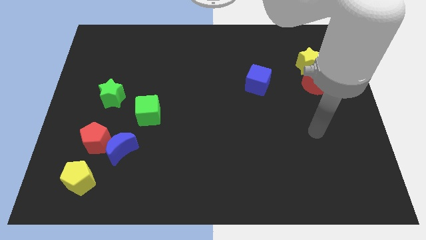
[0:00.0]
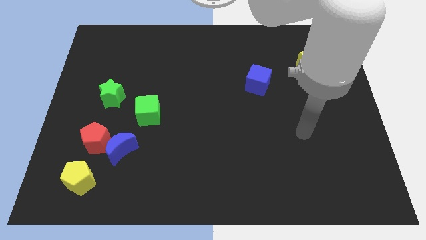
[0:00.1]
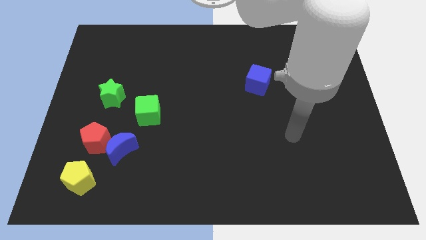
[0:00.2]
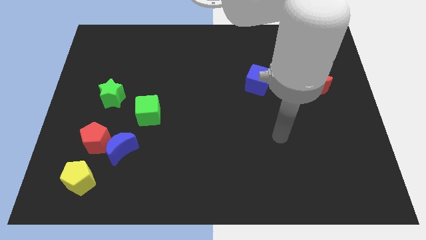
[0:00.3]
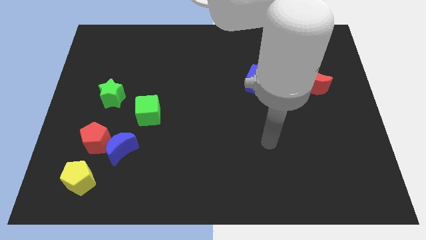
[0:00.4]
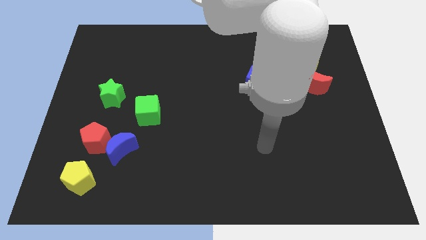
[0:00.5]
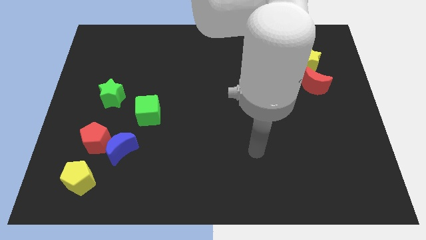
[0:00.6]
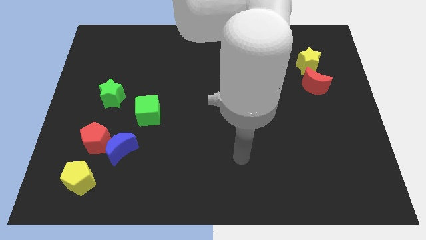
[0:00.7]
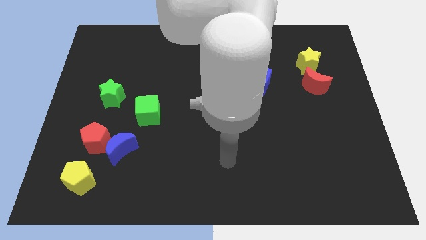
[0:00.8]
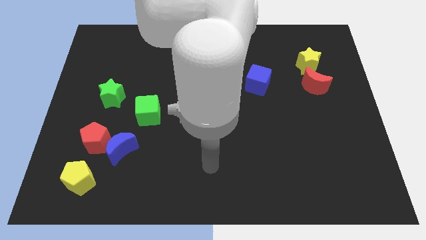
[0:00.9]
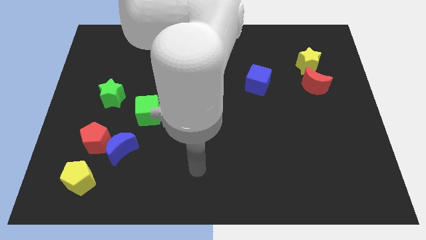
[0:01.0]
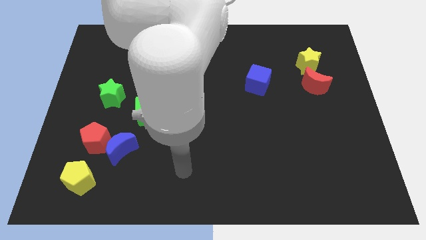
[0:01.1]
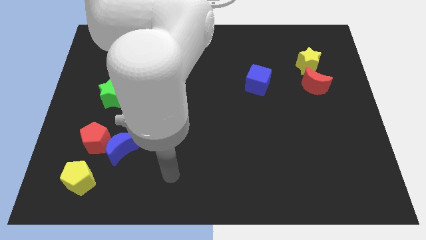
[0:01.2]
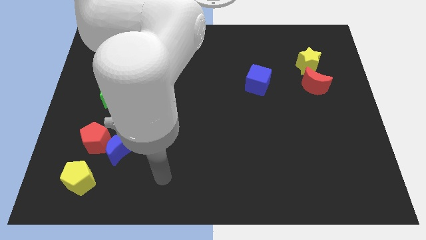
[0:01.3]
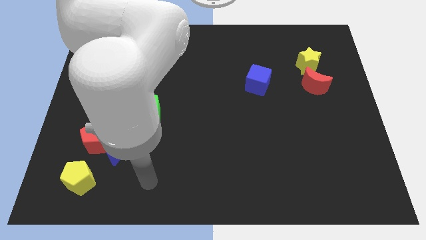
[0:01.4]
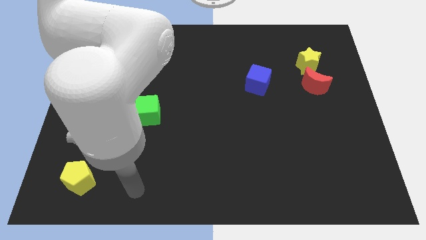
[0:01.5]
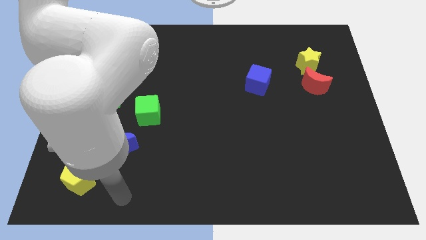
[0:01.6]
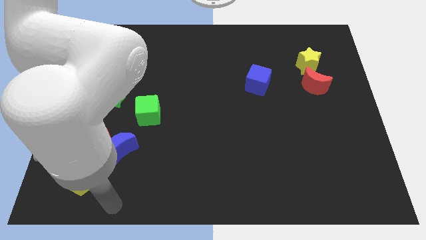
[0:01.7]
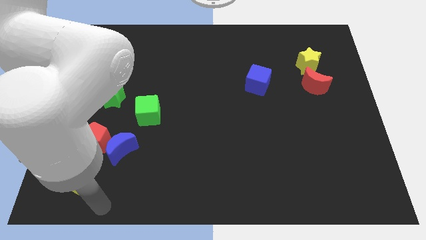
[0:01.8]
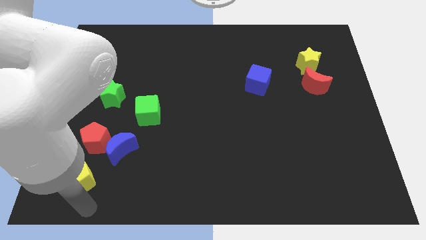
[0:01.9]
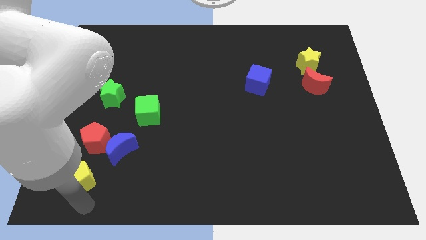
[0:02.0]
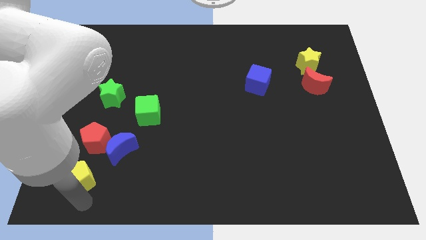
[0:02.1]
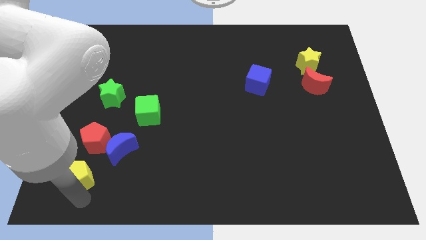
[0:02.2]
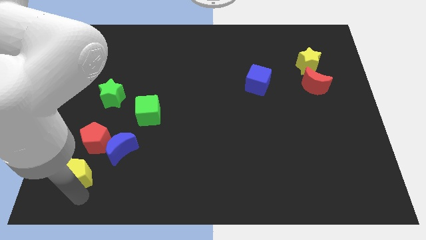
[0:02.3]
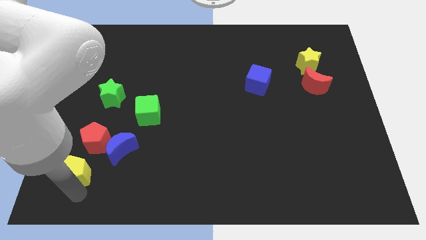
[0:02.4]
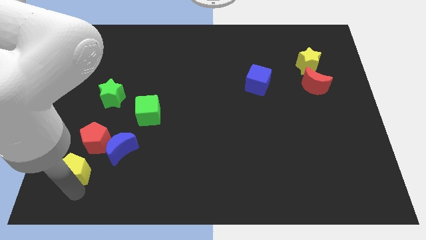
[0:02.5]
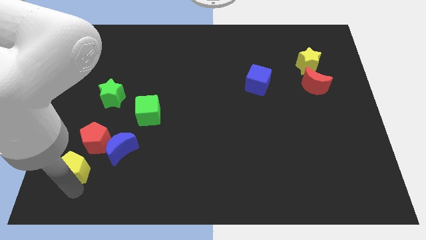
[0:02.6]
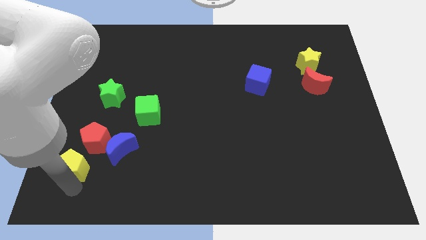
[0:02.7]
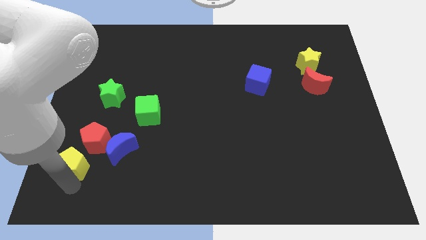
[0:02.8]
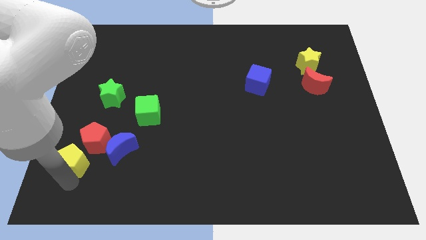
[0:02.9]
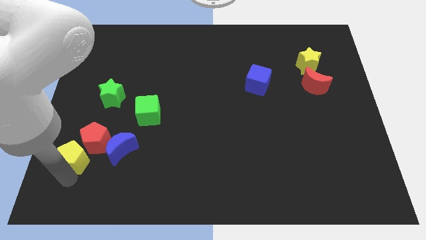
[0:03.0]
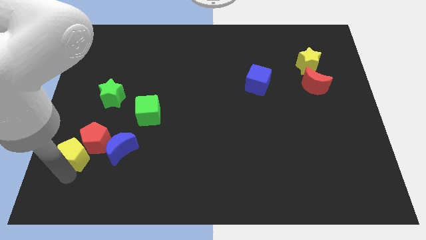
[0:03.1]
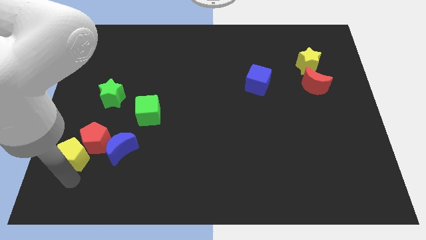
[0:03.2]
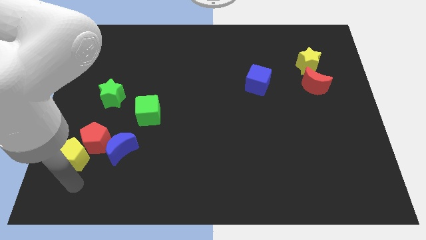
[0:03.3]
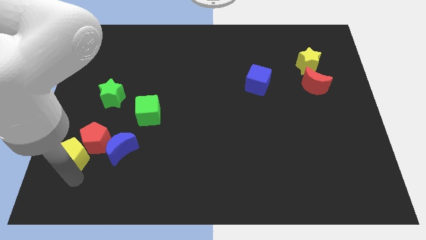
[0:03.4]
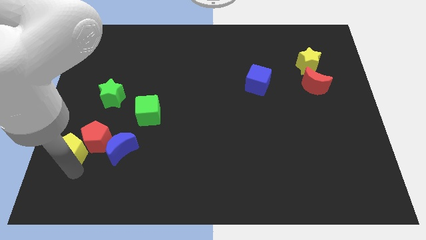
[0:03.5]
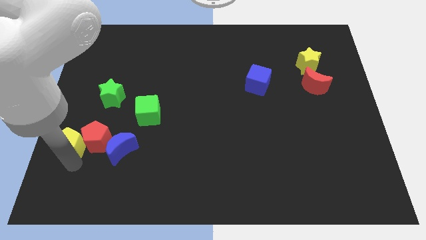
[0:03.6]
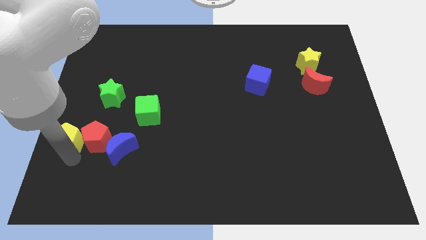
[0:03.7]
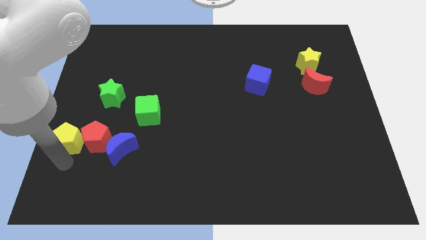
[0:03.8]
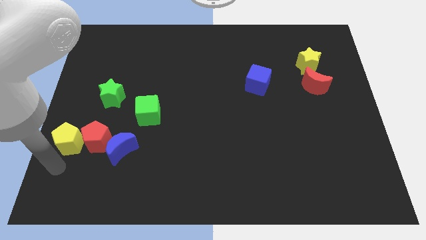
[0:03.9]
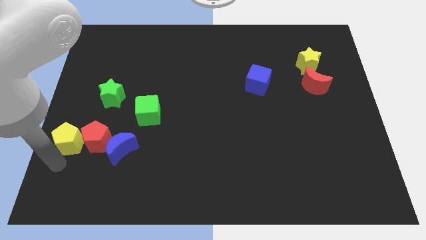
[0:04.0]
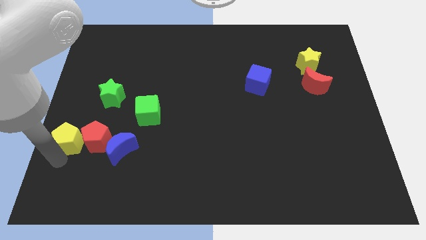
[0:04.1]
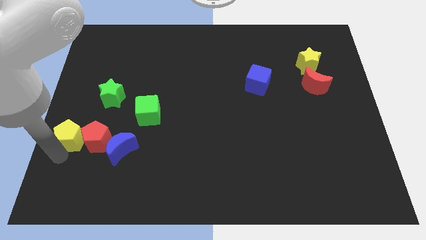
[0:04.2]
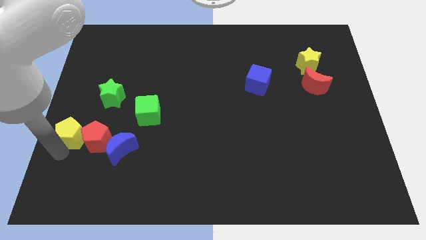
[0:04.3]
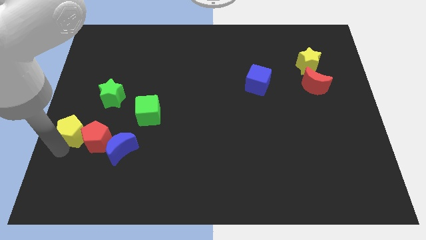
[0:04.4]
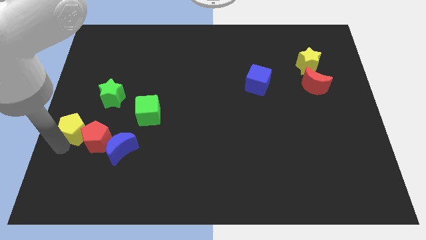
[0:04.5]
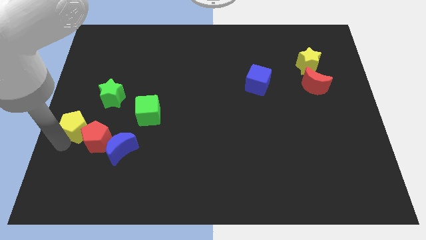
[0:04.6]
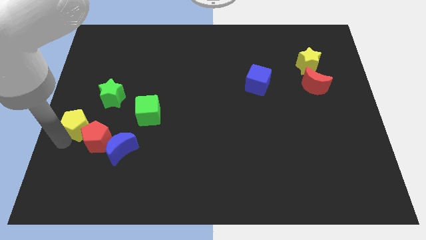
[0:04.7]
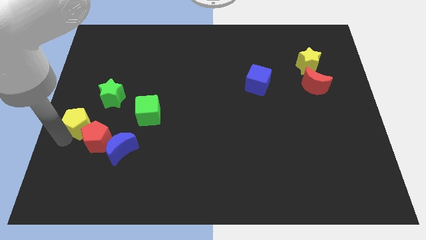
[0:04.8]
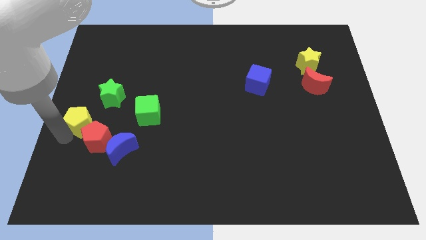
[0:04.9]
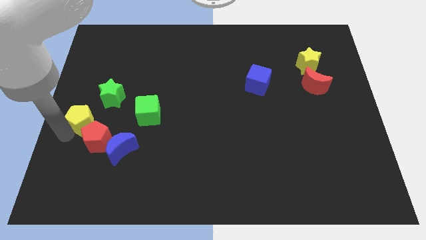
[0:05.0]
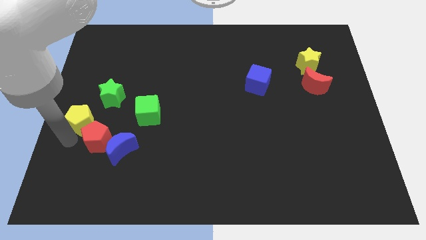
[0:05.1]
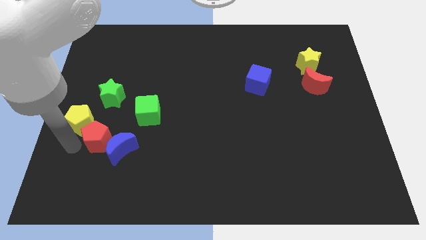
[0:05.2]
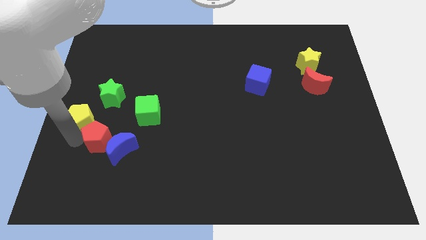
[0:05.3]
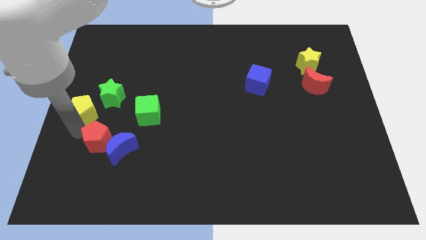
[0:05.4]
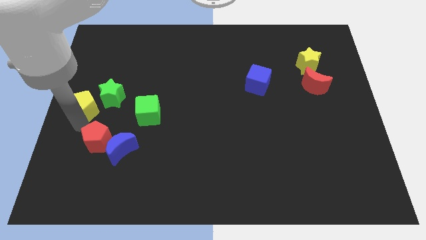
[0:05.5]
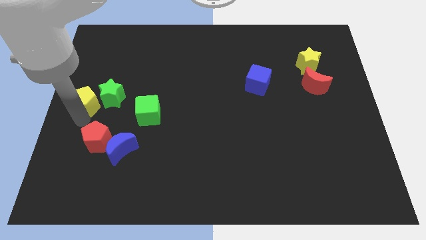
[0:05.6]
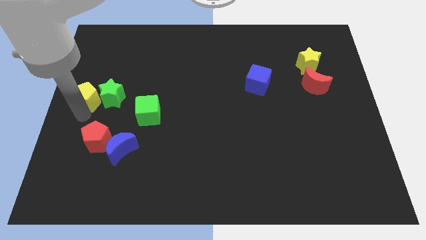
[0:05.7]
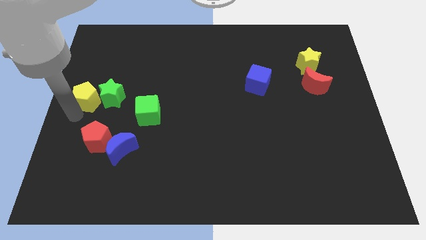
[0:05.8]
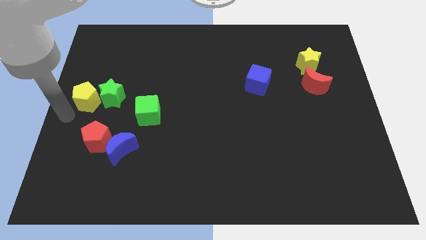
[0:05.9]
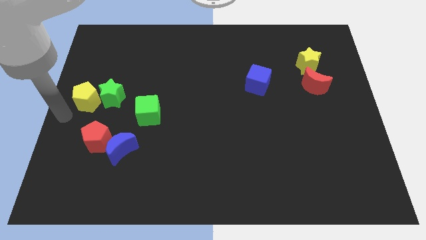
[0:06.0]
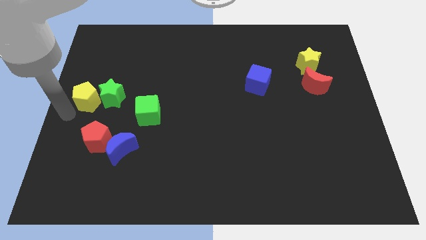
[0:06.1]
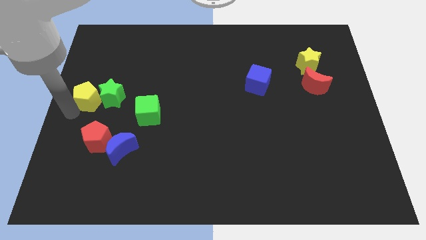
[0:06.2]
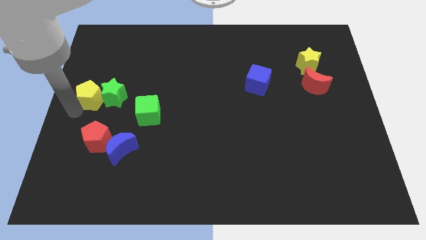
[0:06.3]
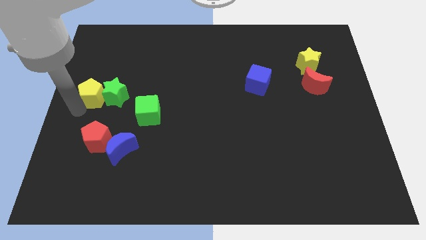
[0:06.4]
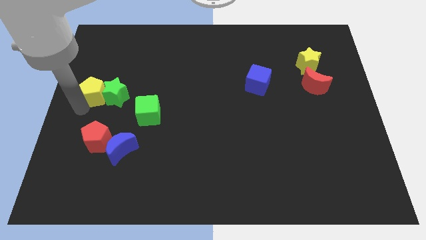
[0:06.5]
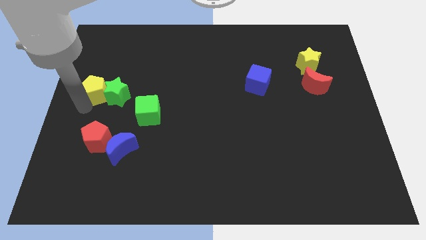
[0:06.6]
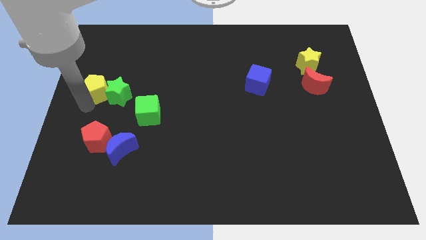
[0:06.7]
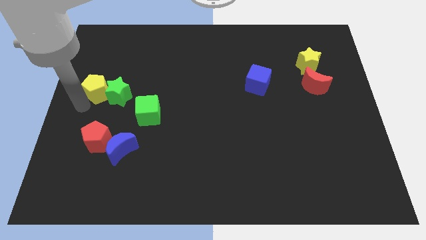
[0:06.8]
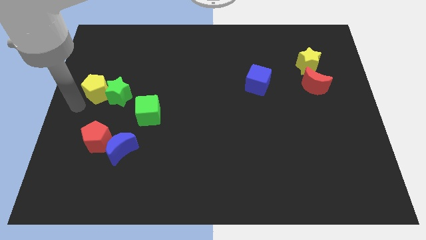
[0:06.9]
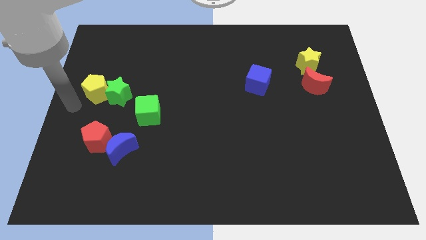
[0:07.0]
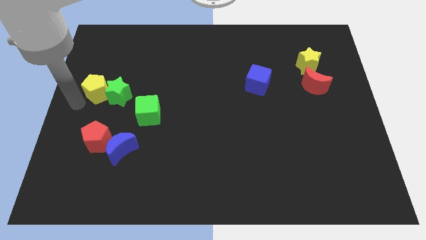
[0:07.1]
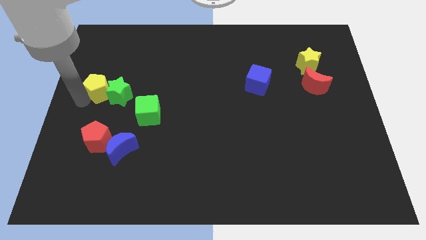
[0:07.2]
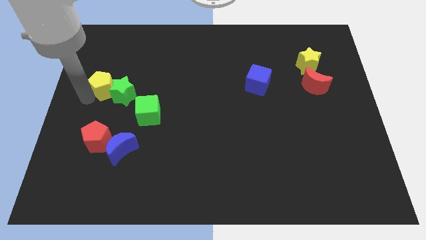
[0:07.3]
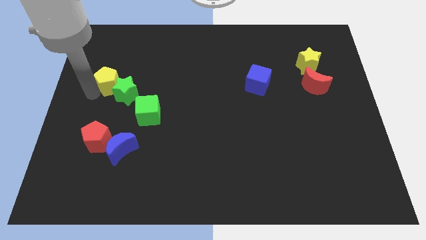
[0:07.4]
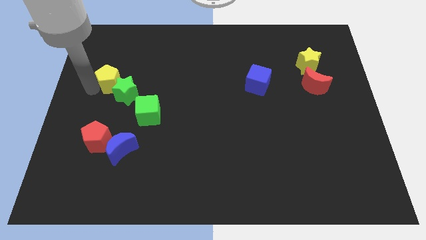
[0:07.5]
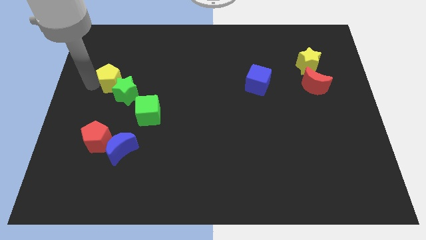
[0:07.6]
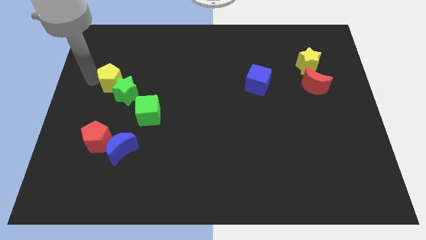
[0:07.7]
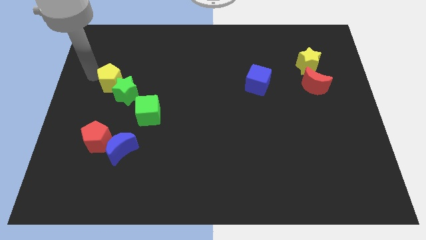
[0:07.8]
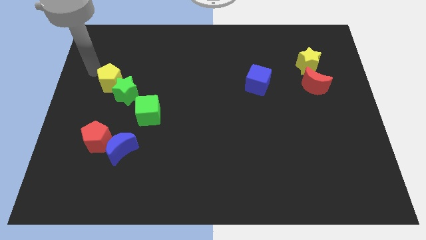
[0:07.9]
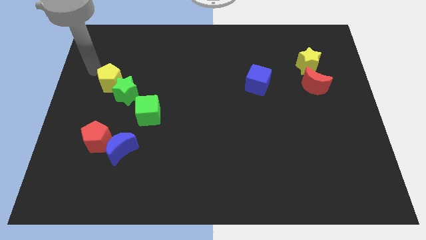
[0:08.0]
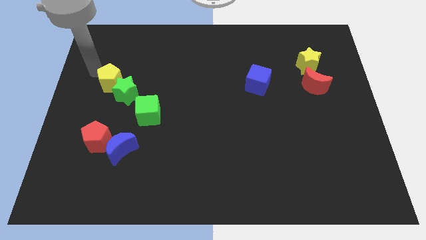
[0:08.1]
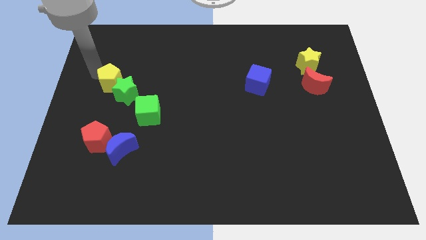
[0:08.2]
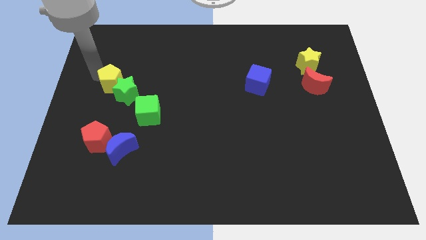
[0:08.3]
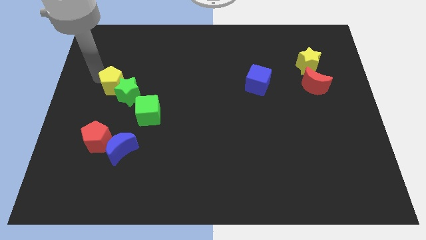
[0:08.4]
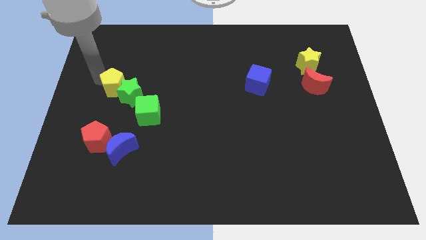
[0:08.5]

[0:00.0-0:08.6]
put the yellow pentagon to the top left side of the green cube

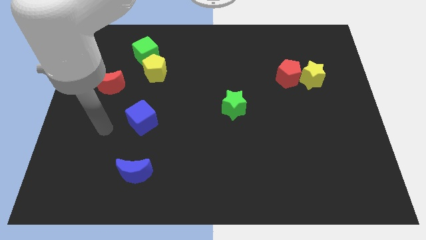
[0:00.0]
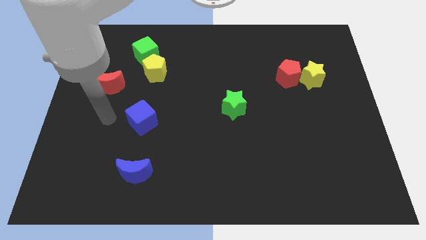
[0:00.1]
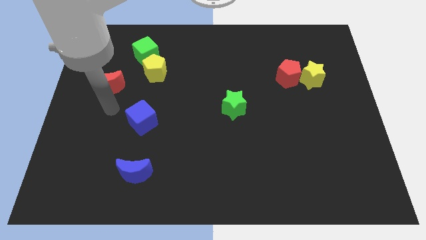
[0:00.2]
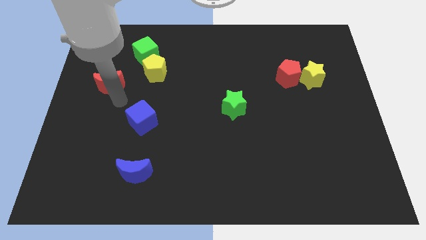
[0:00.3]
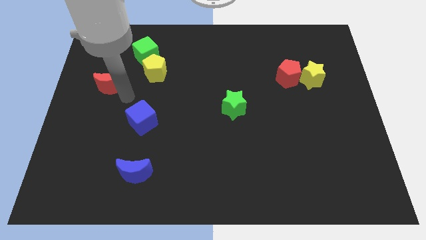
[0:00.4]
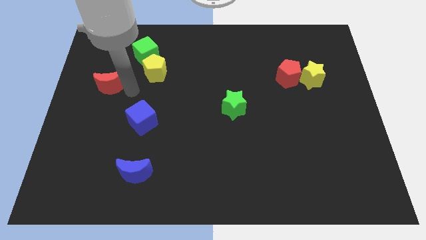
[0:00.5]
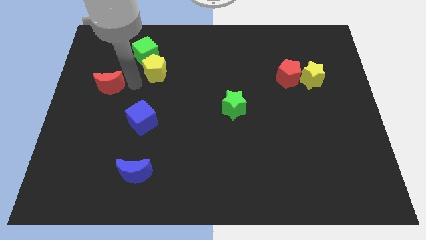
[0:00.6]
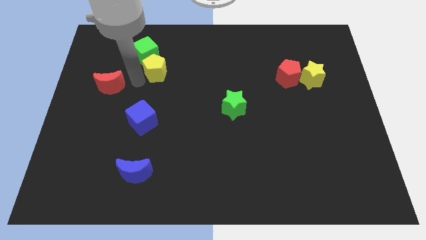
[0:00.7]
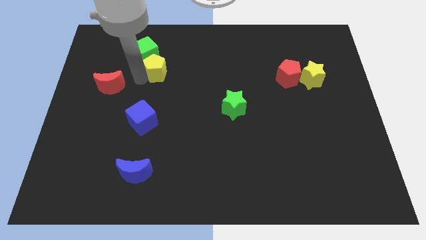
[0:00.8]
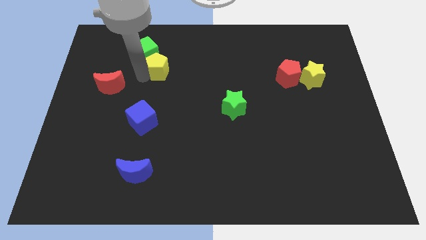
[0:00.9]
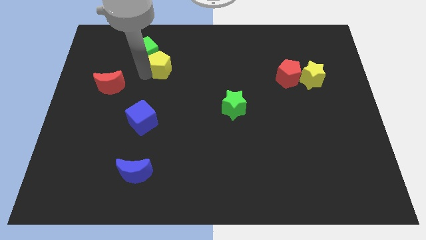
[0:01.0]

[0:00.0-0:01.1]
slide the yellow pentagon right of the green cube
